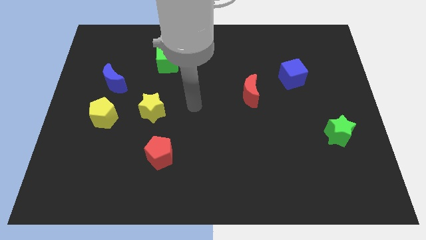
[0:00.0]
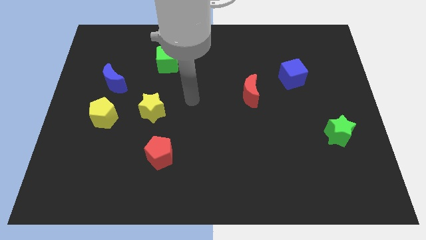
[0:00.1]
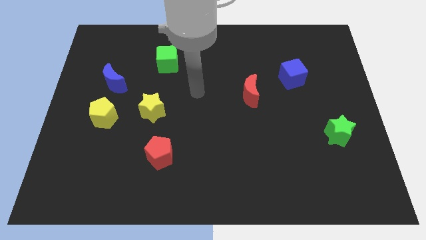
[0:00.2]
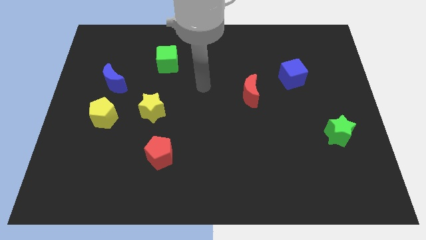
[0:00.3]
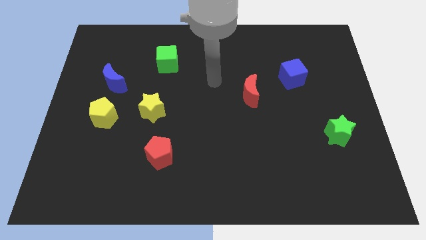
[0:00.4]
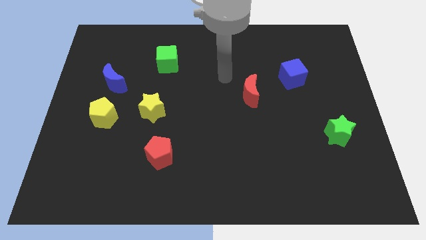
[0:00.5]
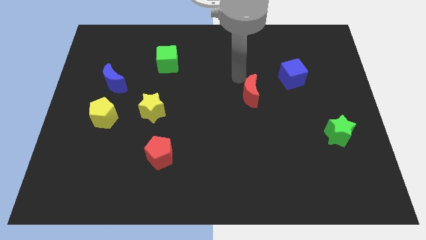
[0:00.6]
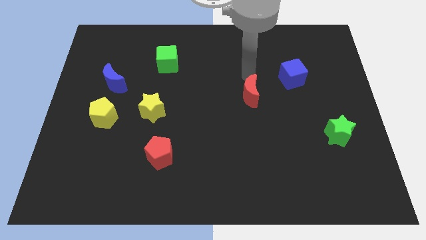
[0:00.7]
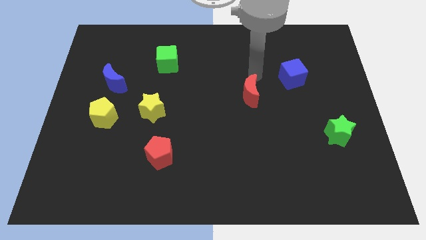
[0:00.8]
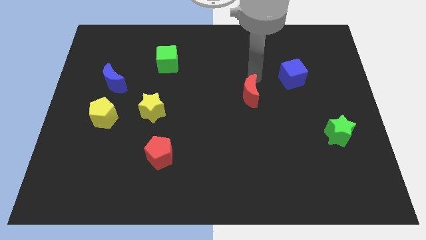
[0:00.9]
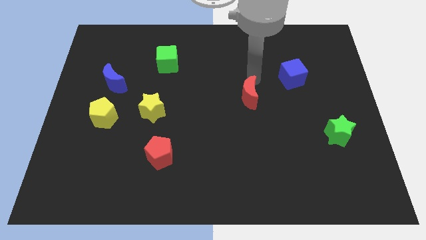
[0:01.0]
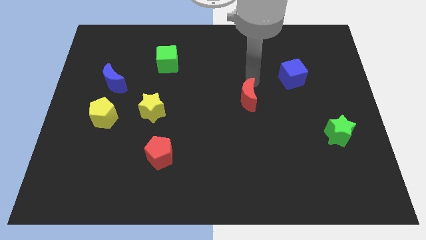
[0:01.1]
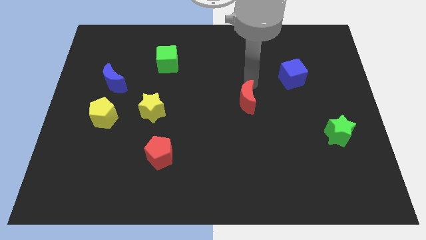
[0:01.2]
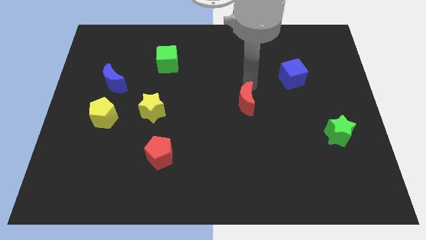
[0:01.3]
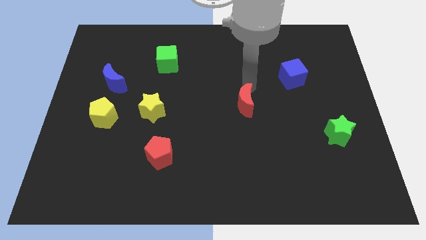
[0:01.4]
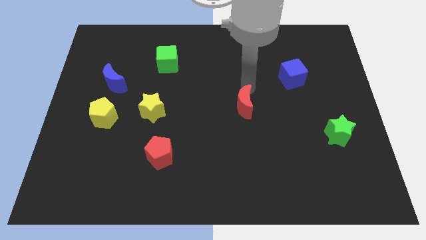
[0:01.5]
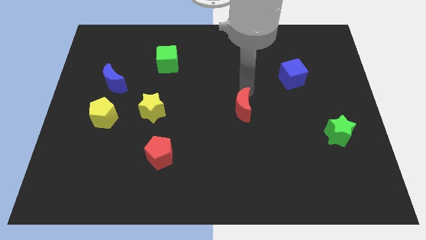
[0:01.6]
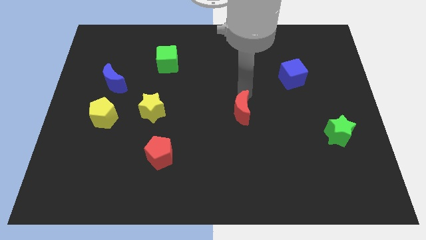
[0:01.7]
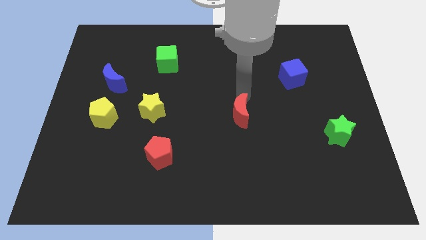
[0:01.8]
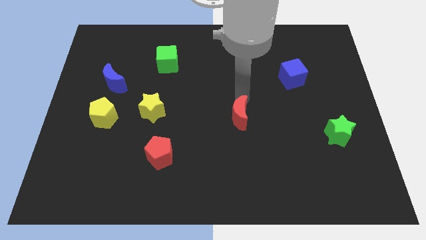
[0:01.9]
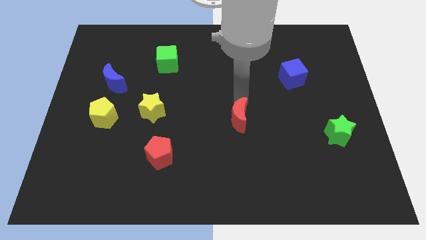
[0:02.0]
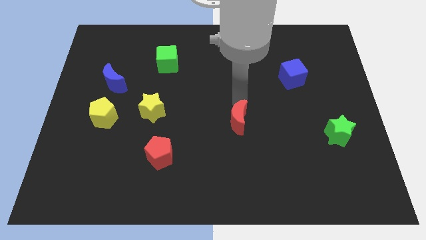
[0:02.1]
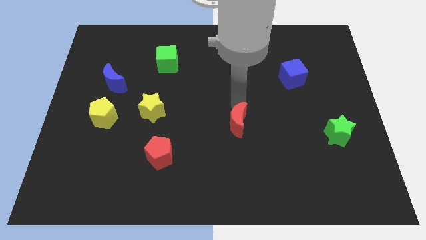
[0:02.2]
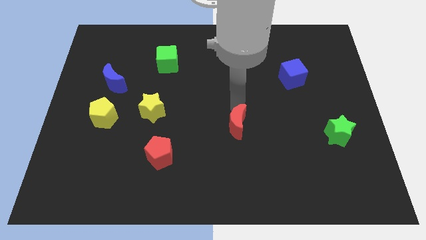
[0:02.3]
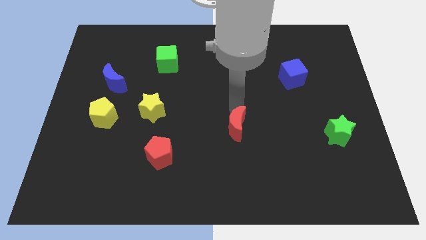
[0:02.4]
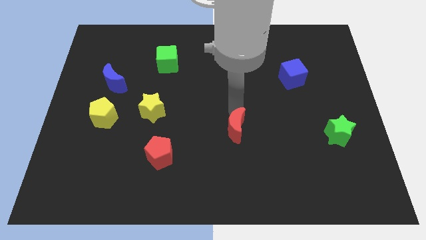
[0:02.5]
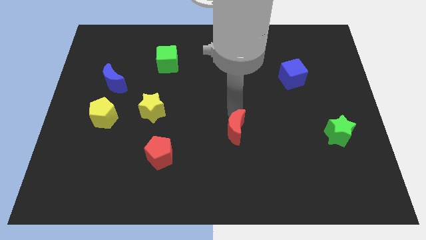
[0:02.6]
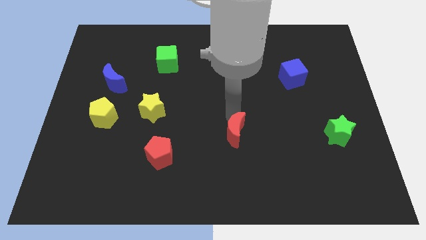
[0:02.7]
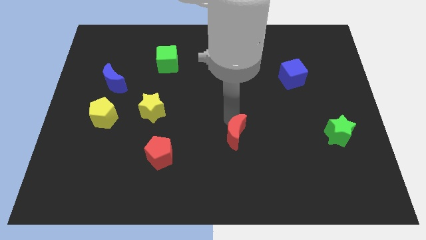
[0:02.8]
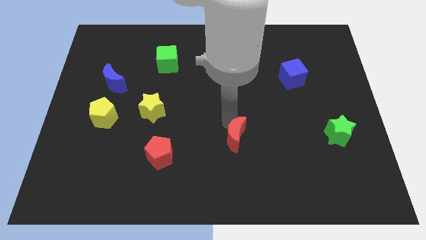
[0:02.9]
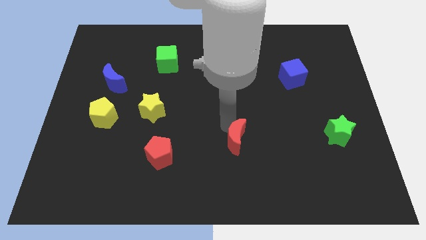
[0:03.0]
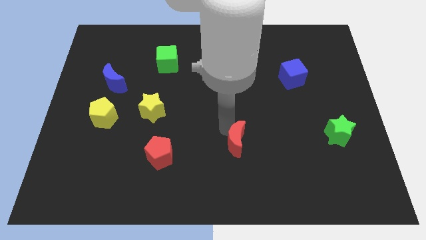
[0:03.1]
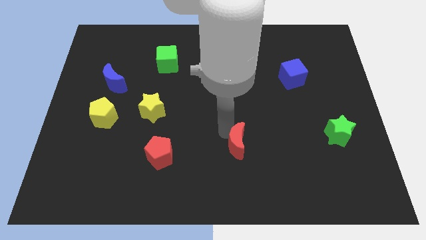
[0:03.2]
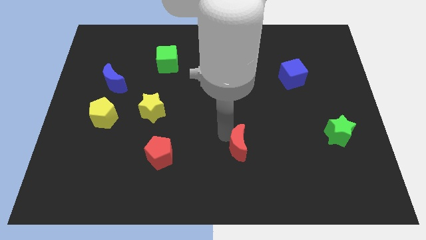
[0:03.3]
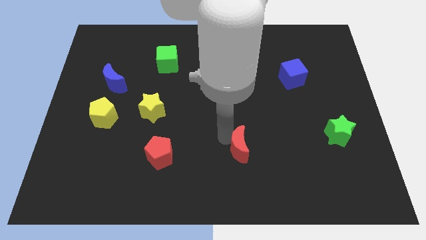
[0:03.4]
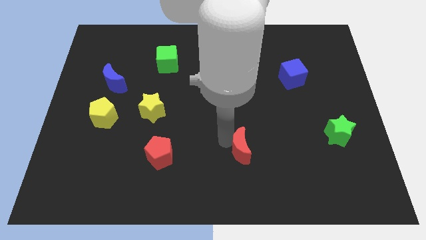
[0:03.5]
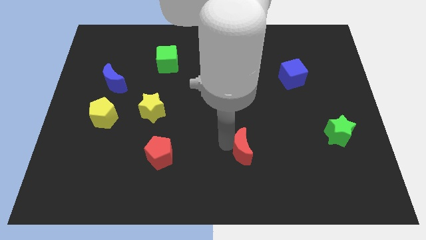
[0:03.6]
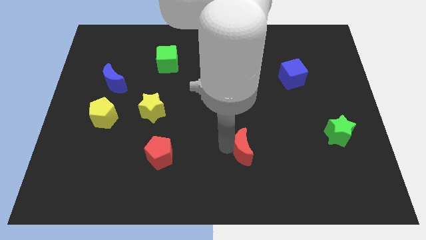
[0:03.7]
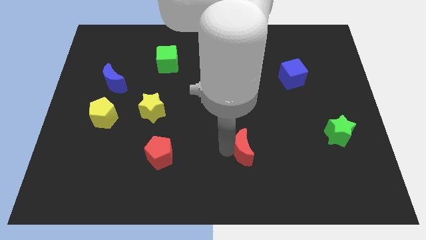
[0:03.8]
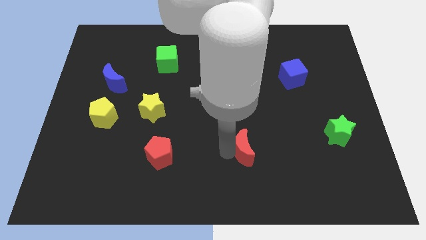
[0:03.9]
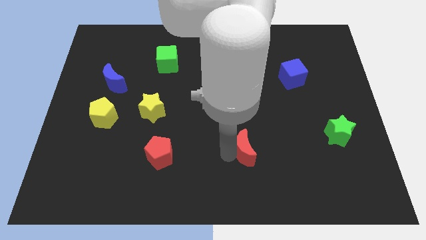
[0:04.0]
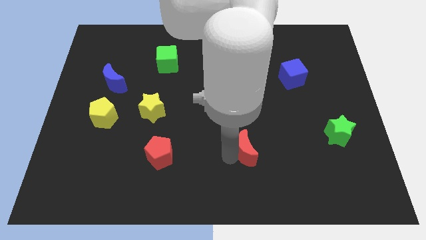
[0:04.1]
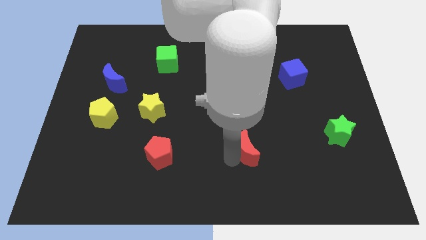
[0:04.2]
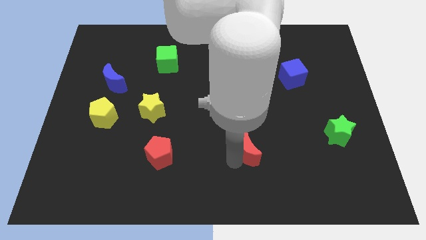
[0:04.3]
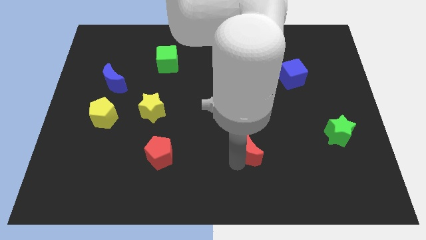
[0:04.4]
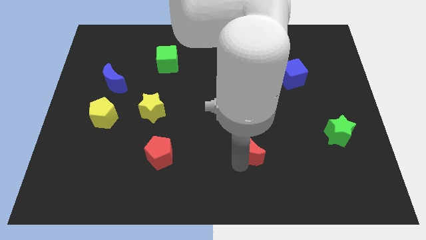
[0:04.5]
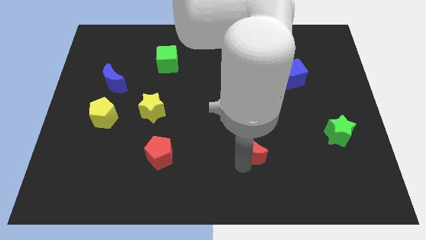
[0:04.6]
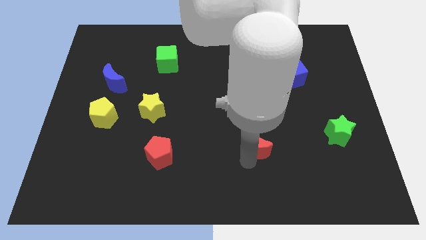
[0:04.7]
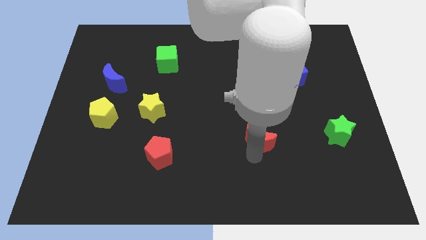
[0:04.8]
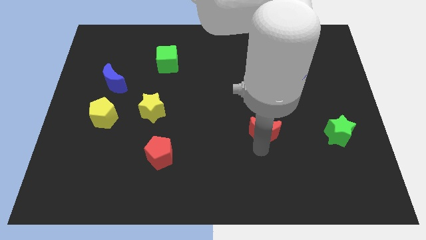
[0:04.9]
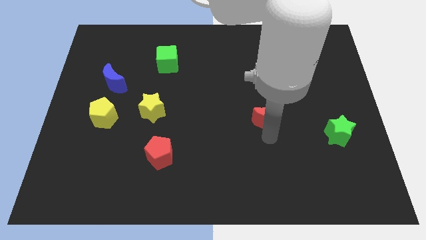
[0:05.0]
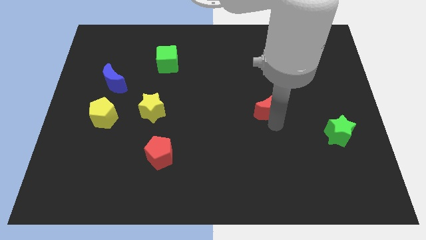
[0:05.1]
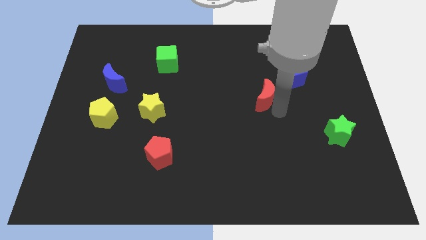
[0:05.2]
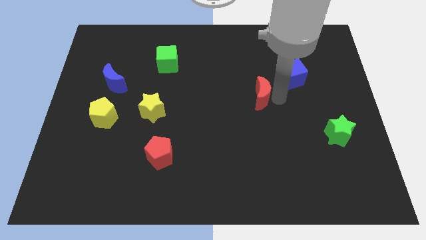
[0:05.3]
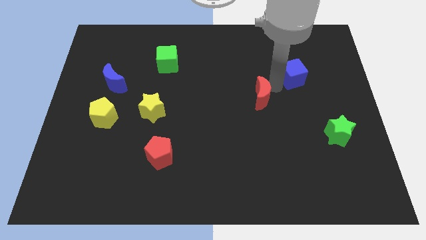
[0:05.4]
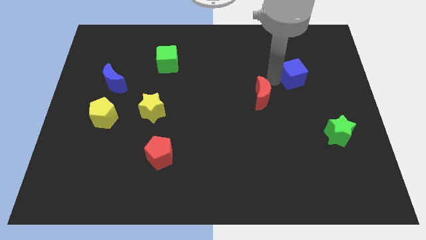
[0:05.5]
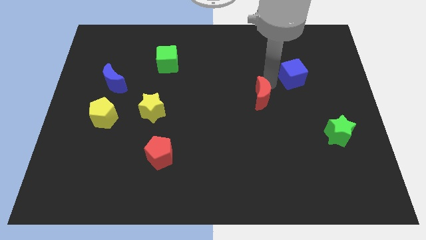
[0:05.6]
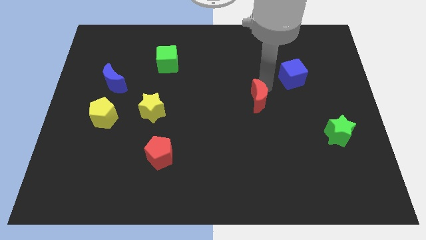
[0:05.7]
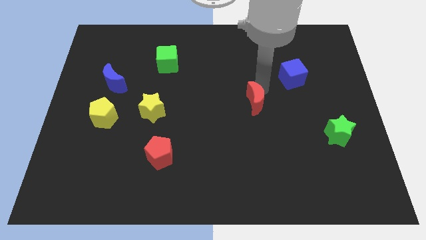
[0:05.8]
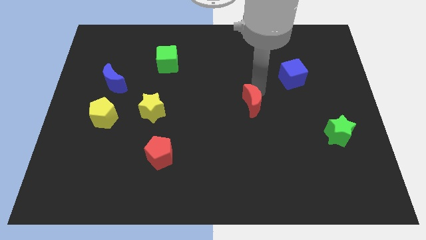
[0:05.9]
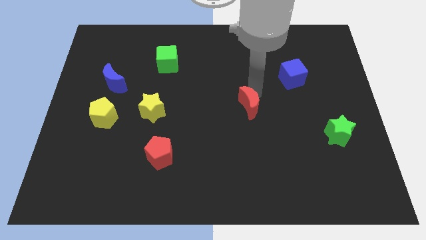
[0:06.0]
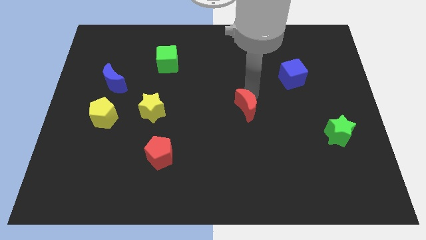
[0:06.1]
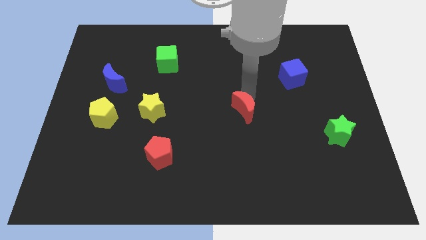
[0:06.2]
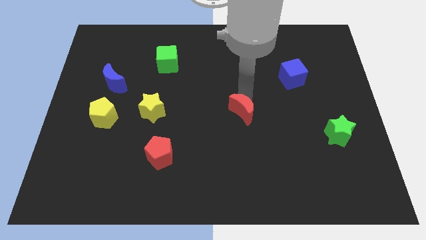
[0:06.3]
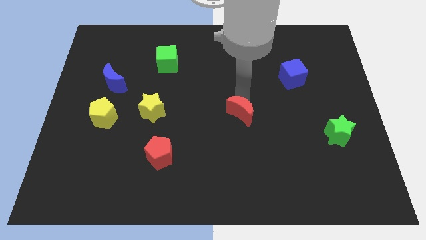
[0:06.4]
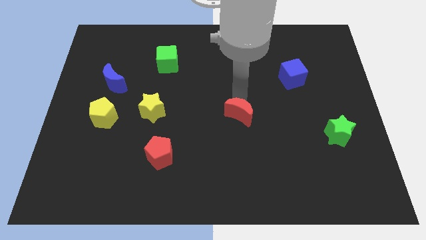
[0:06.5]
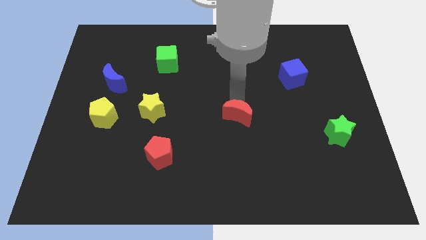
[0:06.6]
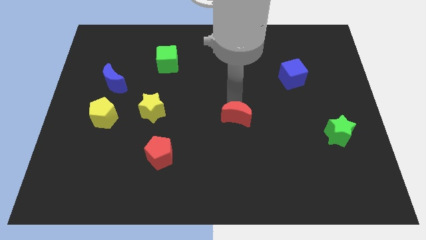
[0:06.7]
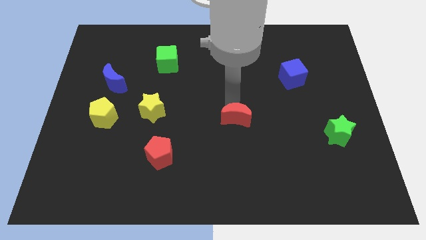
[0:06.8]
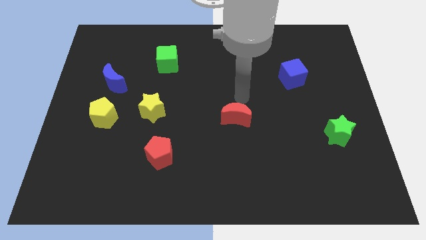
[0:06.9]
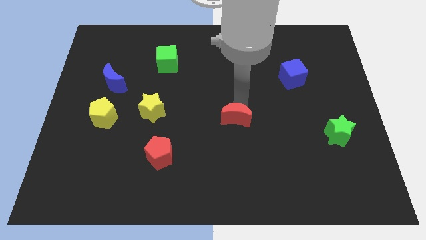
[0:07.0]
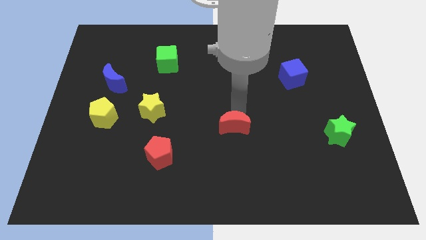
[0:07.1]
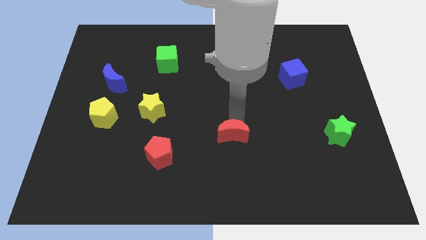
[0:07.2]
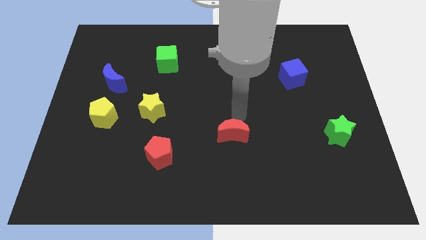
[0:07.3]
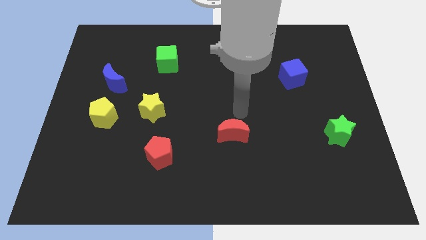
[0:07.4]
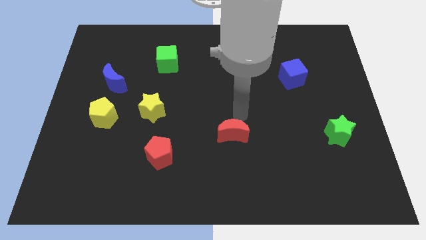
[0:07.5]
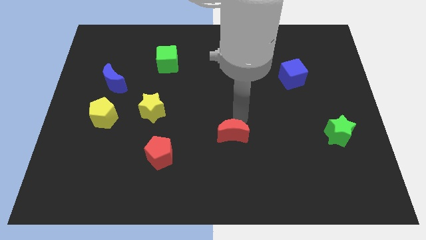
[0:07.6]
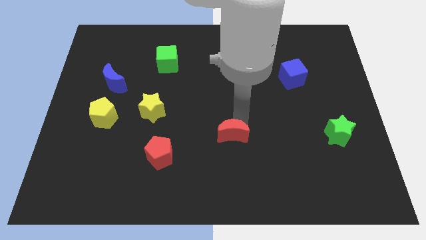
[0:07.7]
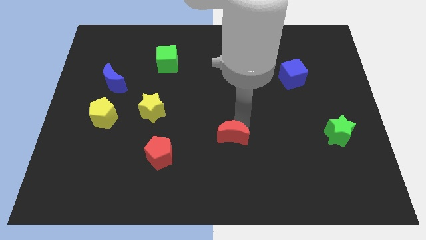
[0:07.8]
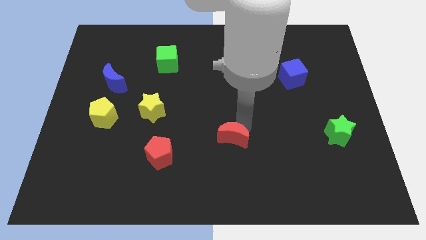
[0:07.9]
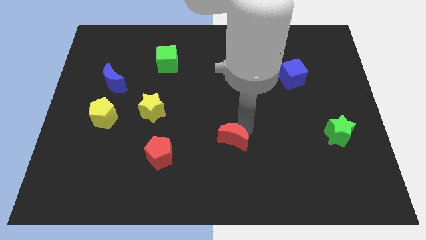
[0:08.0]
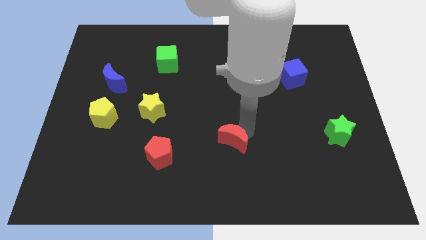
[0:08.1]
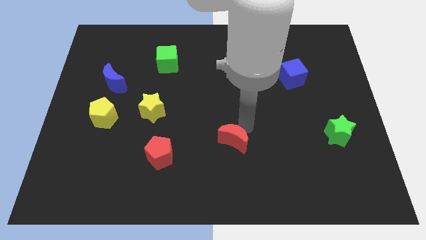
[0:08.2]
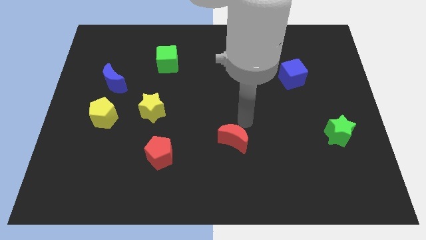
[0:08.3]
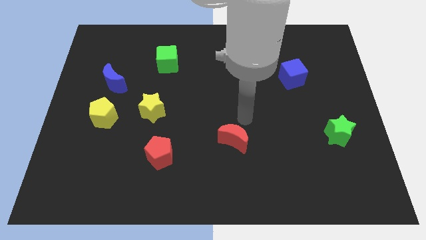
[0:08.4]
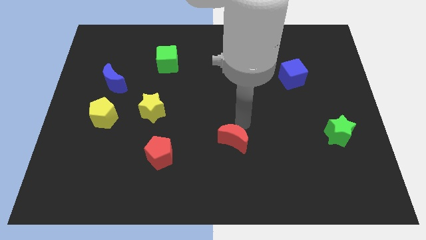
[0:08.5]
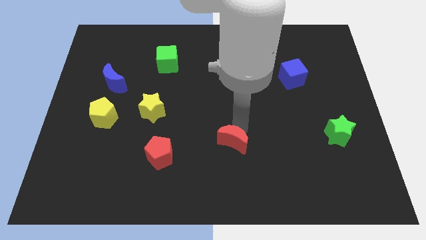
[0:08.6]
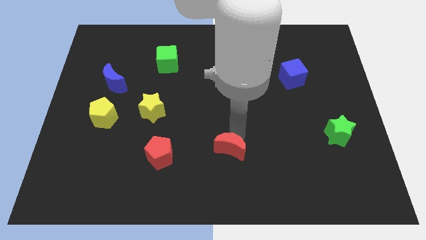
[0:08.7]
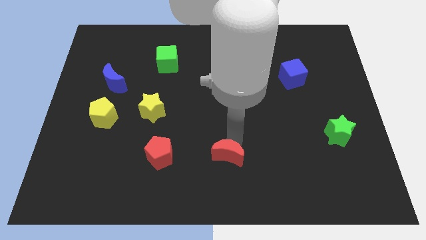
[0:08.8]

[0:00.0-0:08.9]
slide the red moon to the bottom
